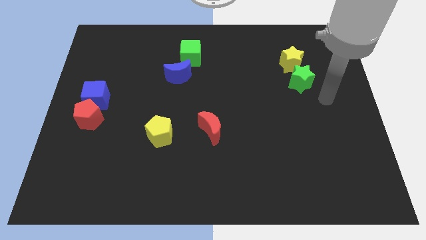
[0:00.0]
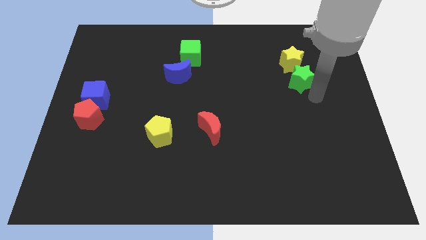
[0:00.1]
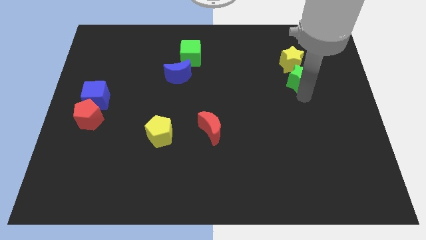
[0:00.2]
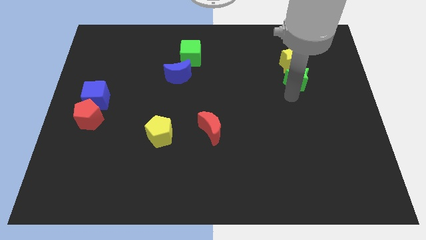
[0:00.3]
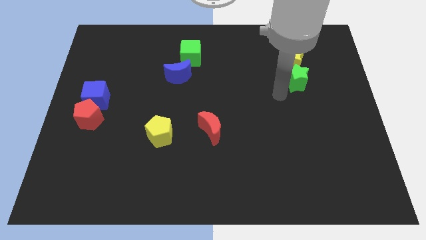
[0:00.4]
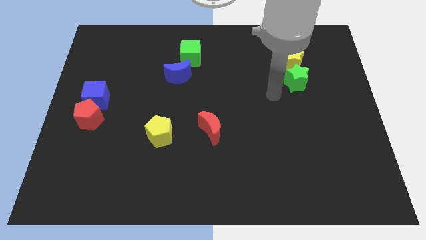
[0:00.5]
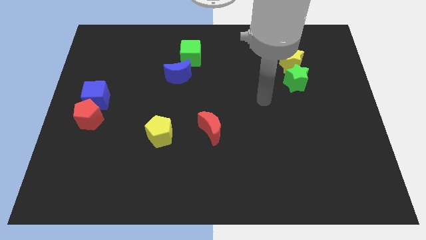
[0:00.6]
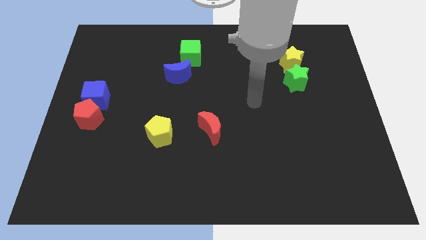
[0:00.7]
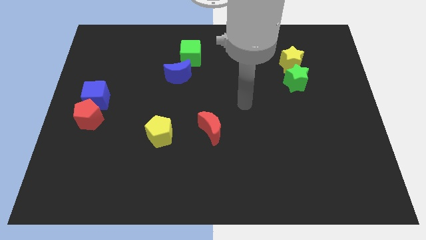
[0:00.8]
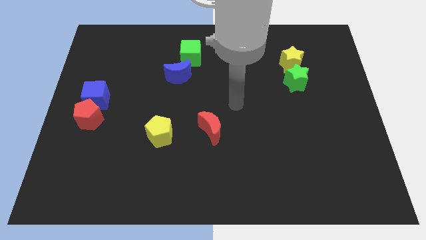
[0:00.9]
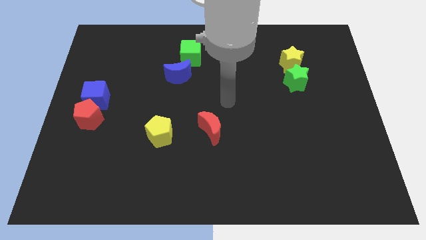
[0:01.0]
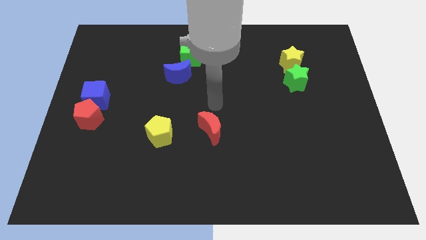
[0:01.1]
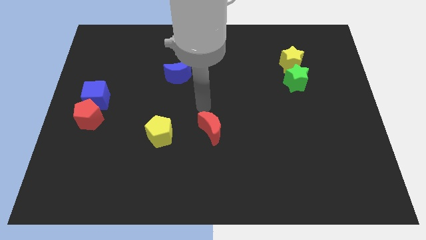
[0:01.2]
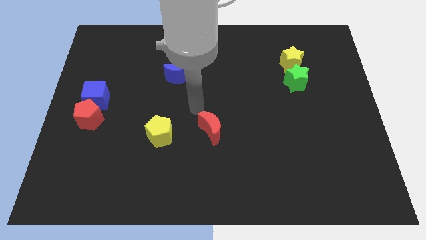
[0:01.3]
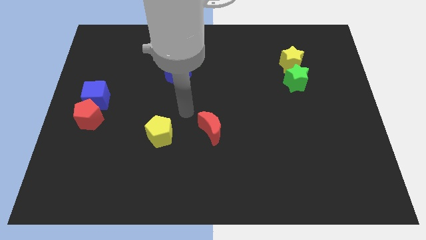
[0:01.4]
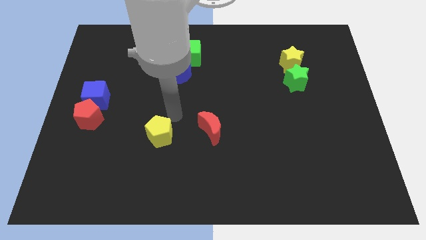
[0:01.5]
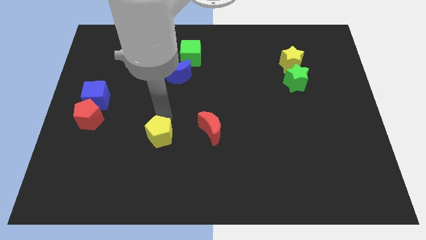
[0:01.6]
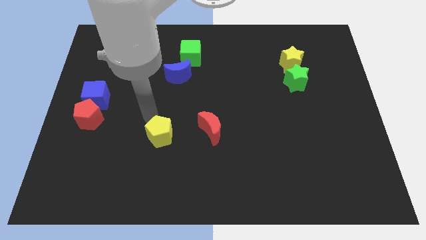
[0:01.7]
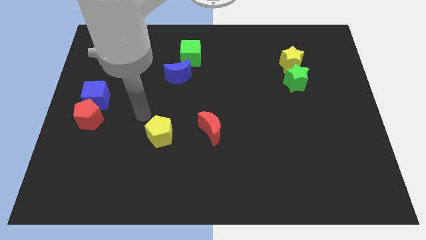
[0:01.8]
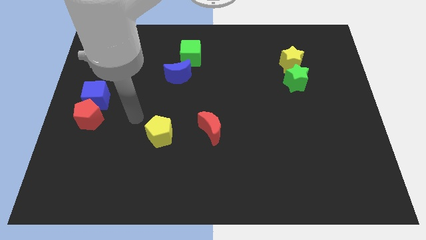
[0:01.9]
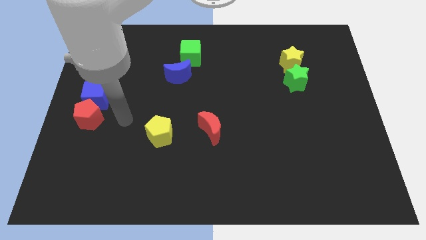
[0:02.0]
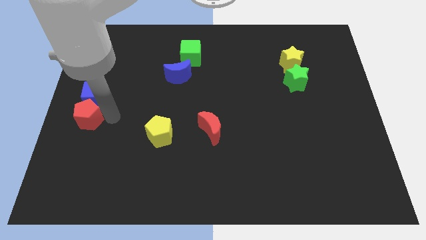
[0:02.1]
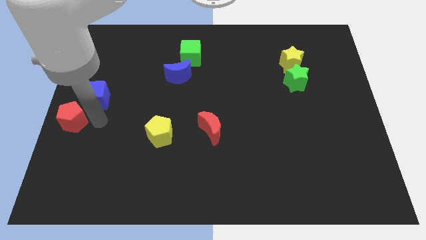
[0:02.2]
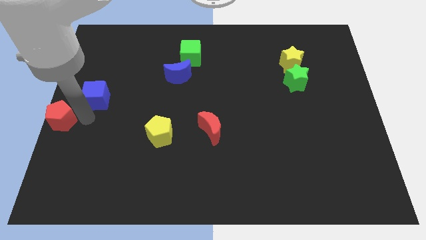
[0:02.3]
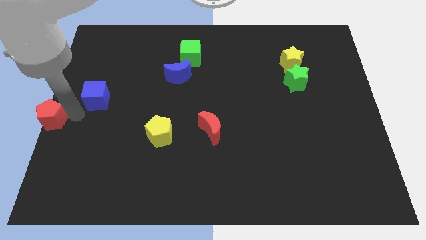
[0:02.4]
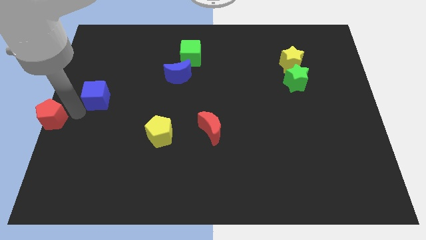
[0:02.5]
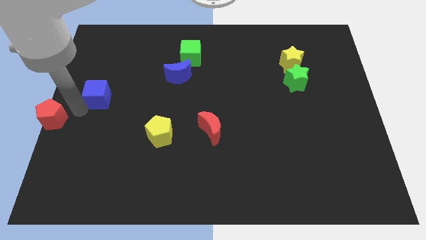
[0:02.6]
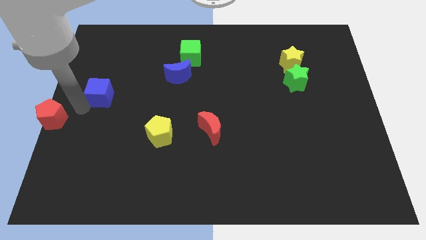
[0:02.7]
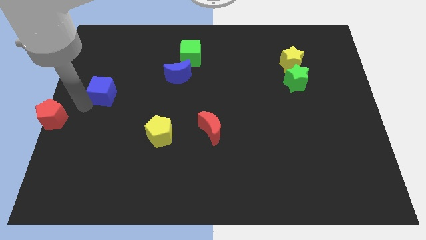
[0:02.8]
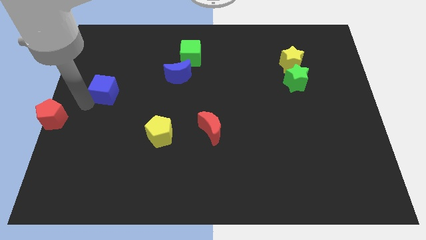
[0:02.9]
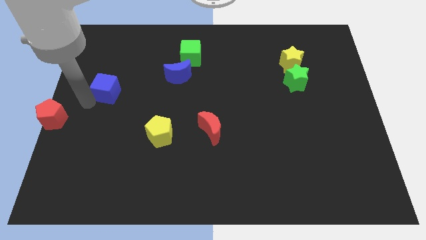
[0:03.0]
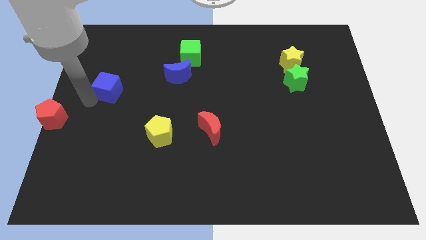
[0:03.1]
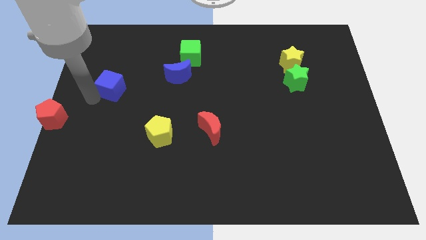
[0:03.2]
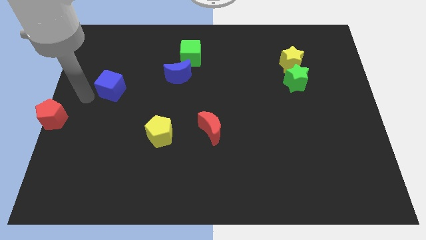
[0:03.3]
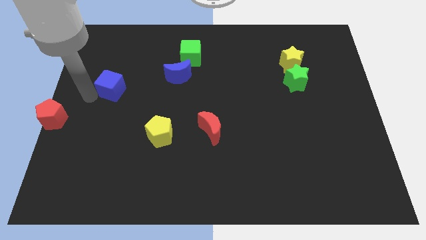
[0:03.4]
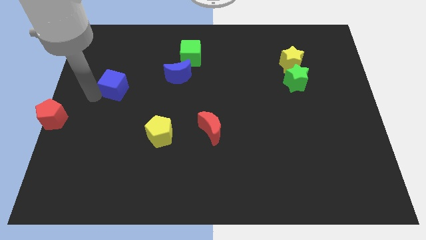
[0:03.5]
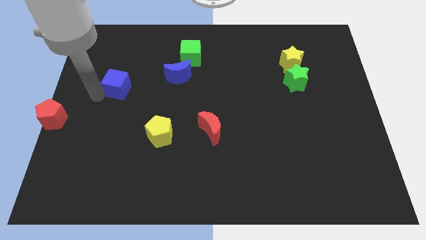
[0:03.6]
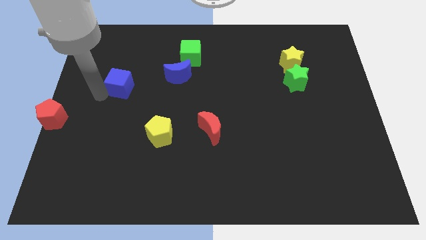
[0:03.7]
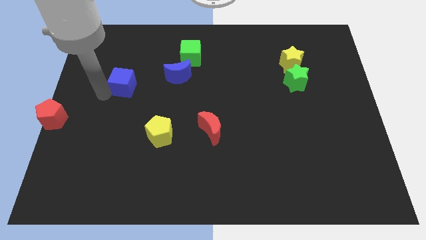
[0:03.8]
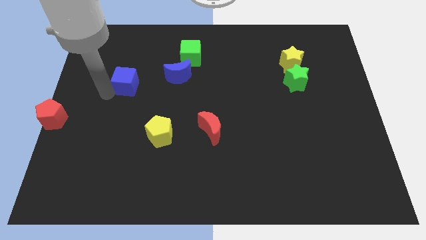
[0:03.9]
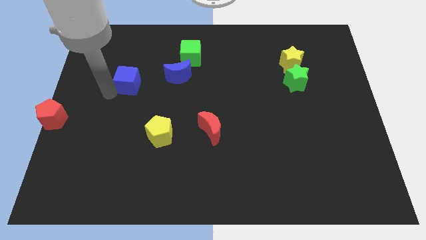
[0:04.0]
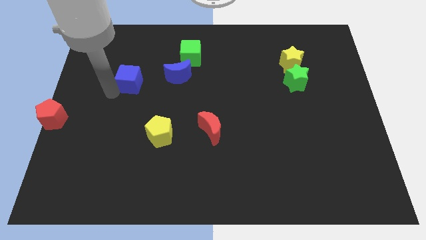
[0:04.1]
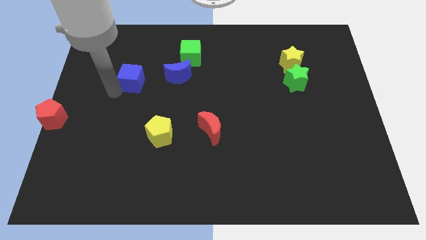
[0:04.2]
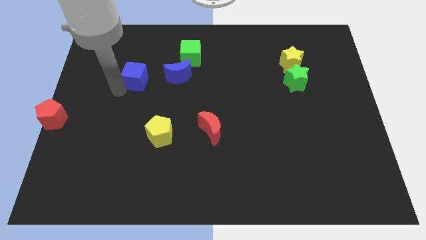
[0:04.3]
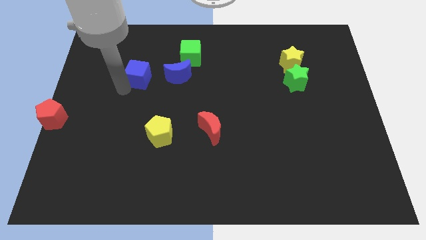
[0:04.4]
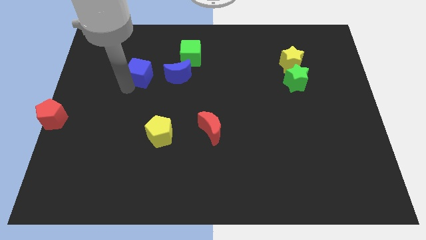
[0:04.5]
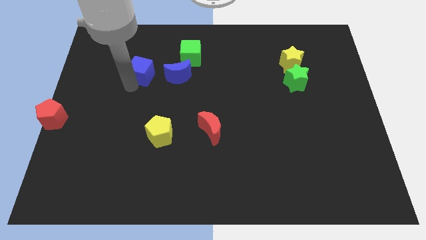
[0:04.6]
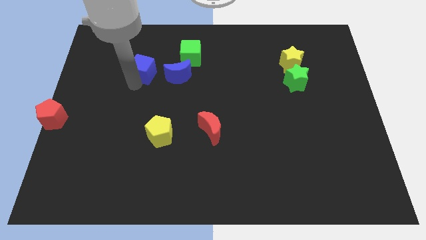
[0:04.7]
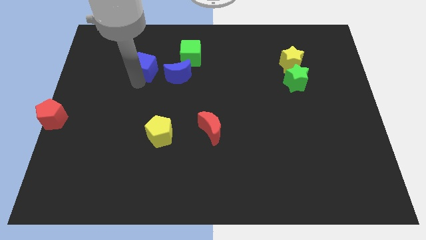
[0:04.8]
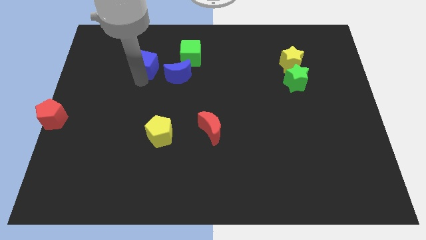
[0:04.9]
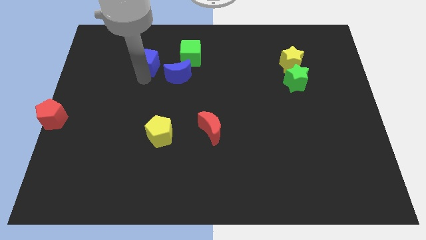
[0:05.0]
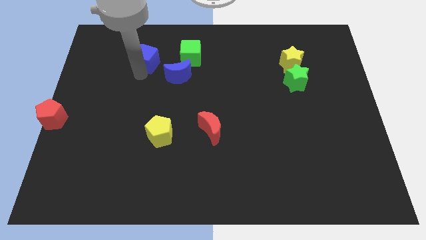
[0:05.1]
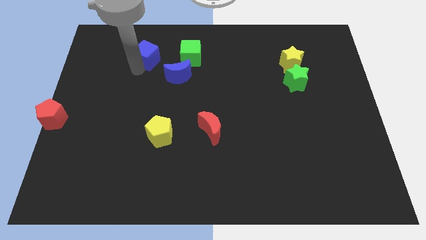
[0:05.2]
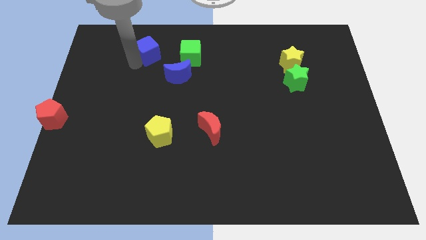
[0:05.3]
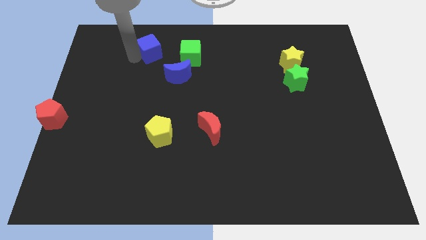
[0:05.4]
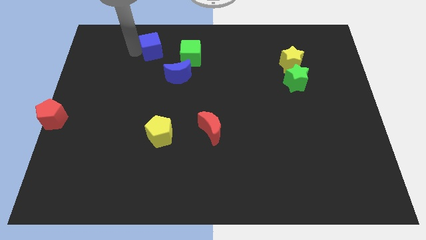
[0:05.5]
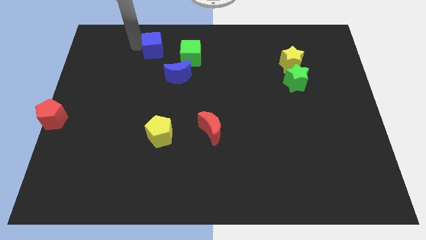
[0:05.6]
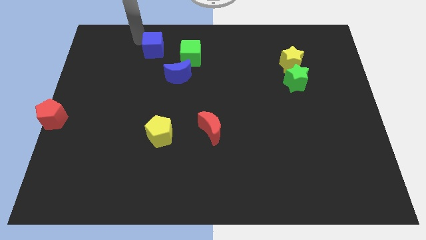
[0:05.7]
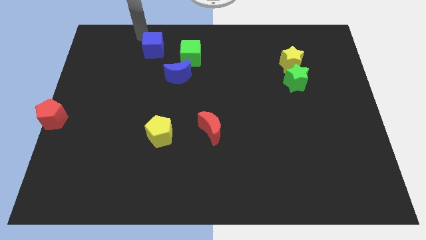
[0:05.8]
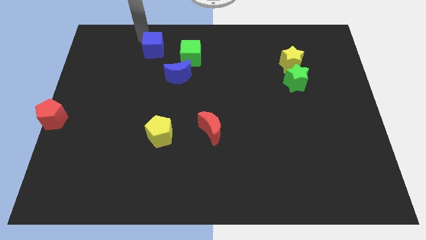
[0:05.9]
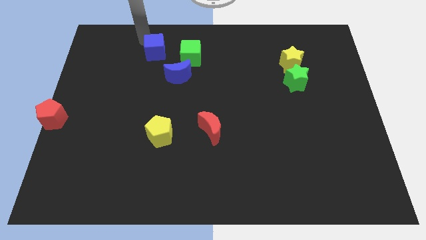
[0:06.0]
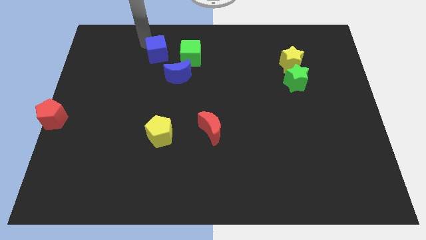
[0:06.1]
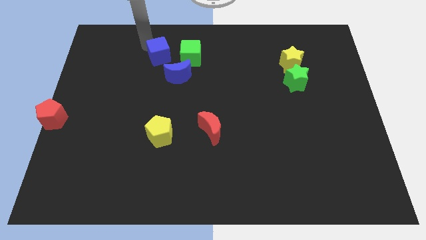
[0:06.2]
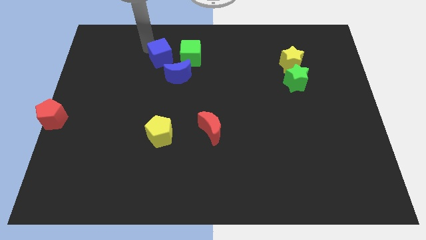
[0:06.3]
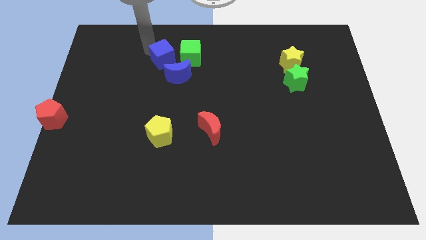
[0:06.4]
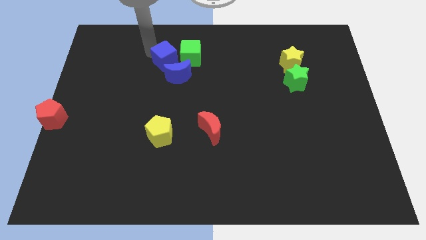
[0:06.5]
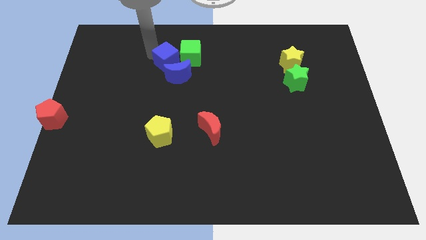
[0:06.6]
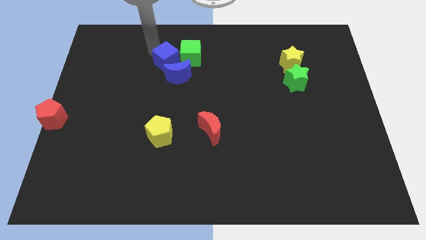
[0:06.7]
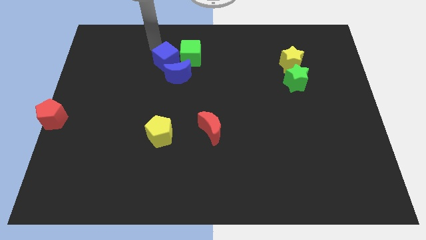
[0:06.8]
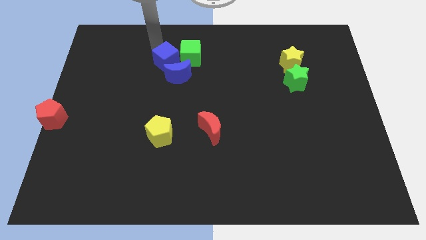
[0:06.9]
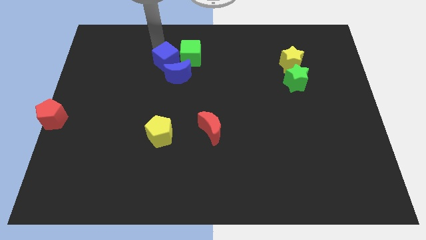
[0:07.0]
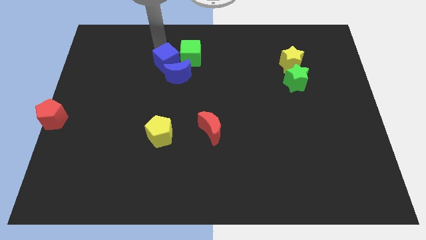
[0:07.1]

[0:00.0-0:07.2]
push the blue cube close to the blue moon
